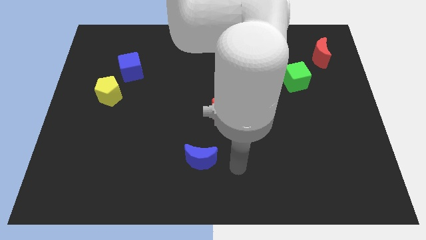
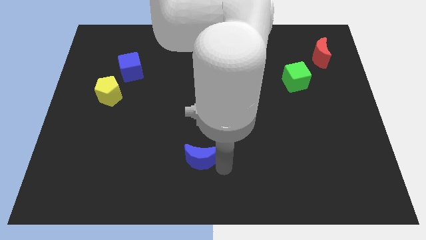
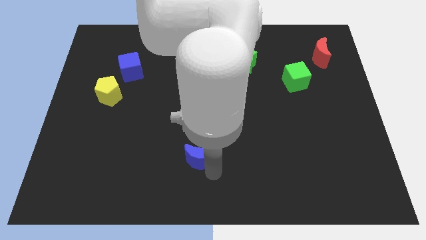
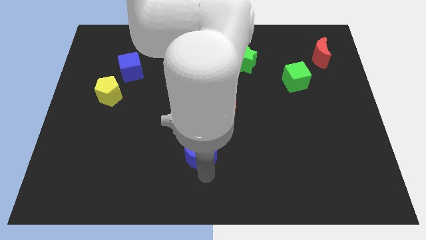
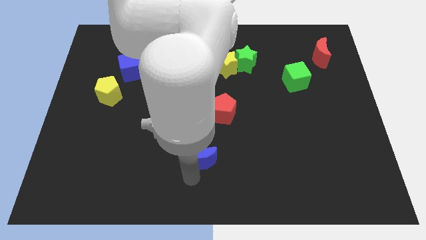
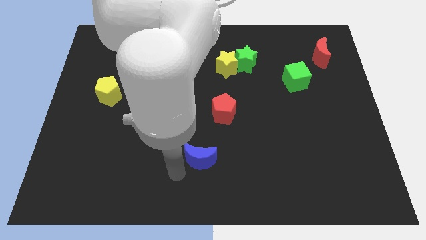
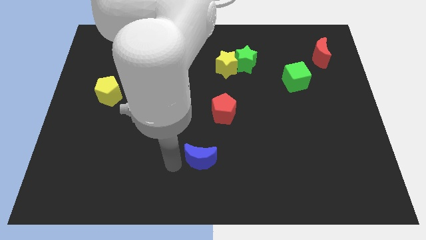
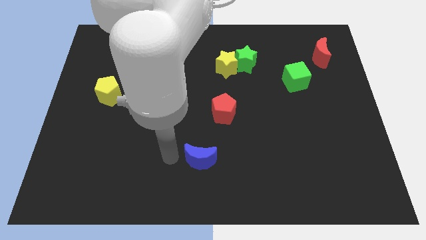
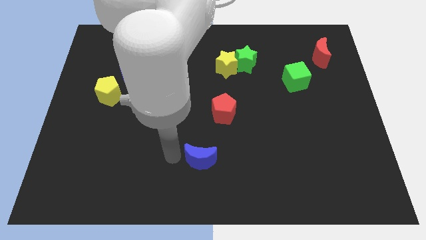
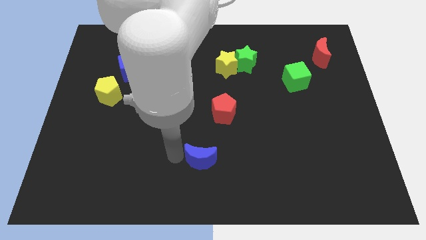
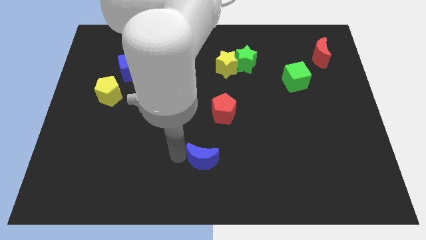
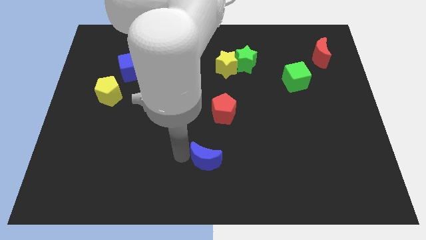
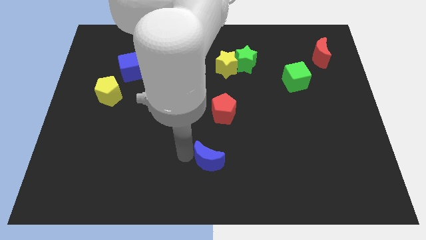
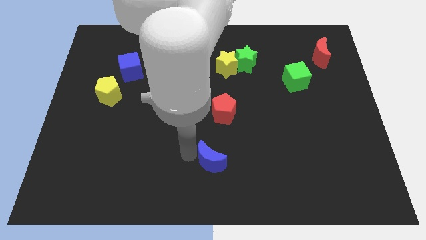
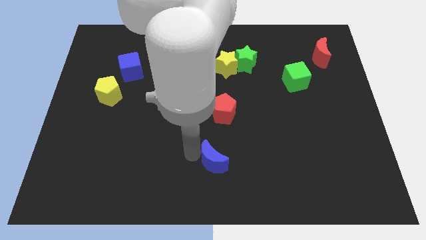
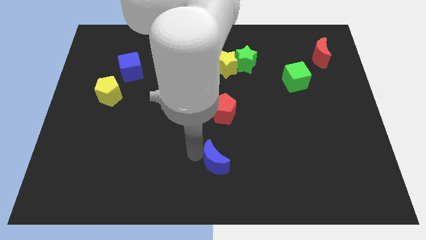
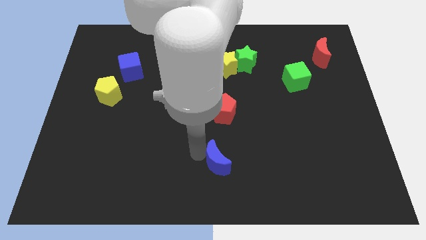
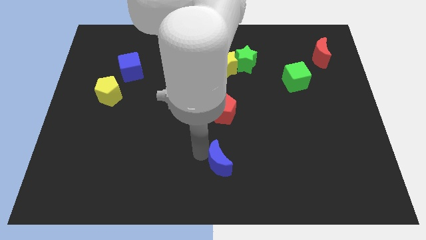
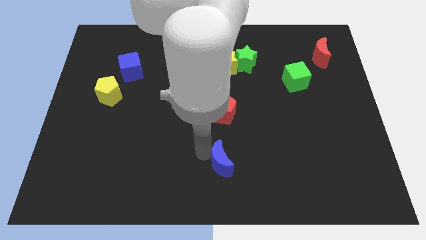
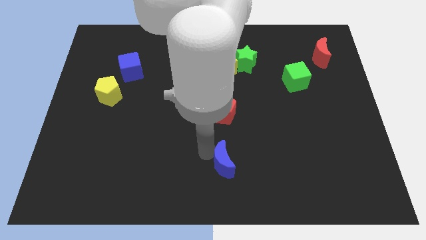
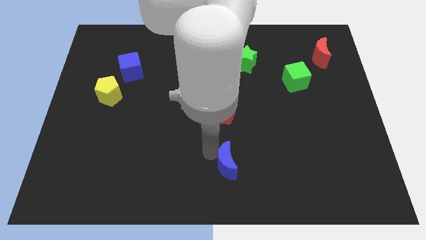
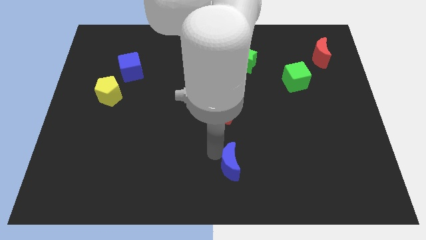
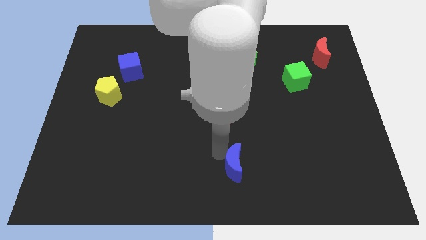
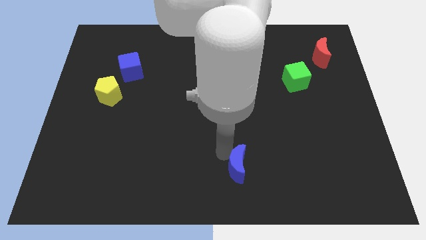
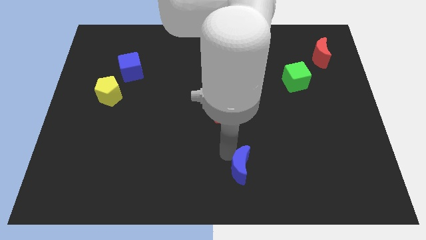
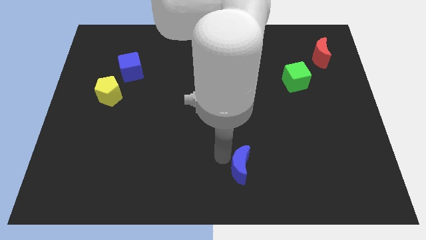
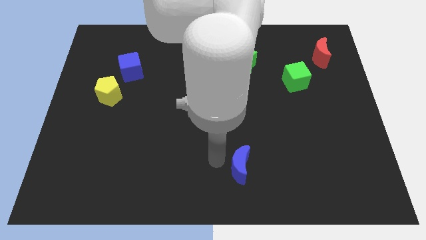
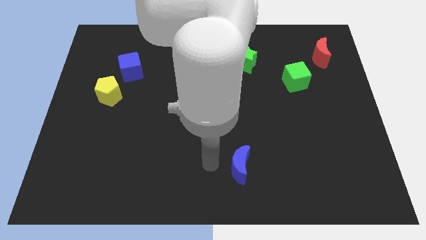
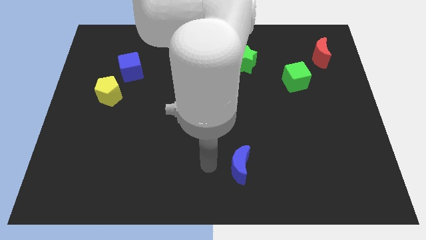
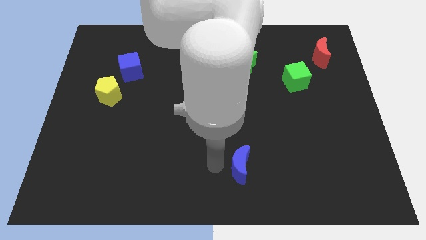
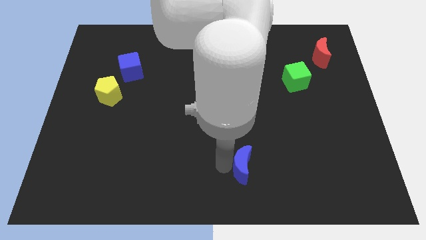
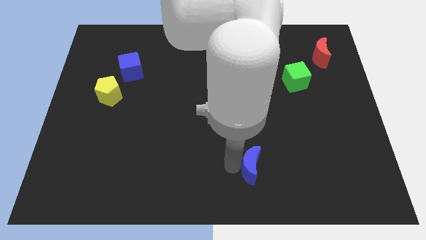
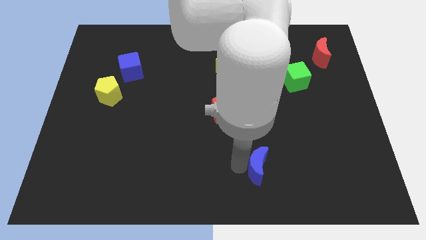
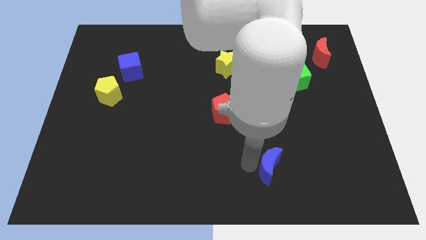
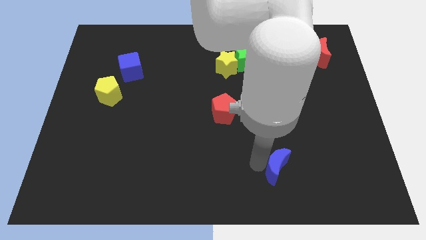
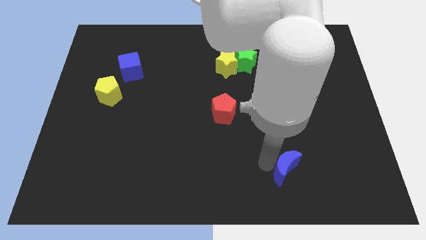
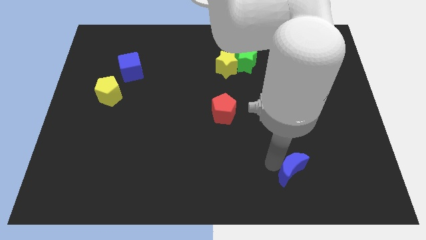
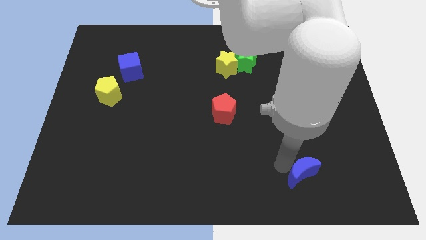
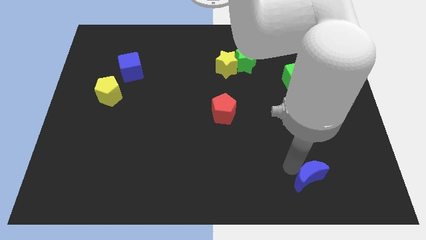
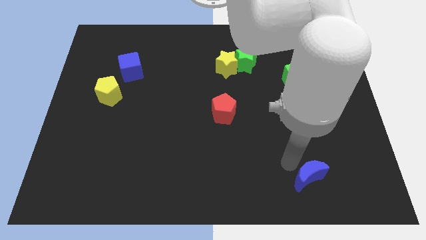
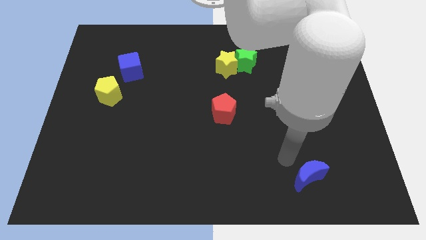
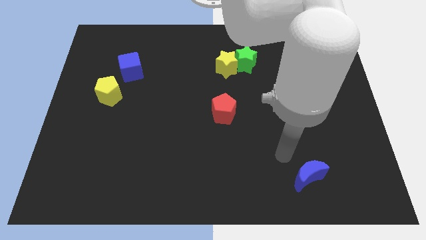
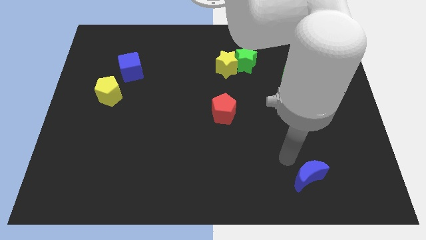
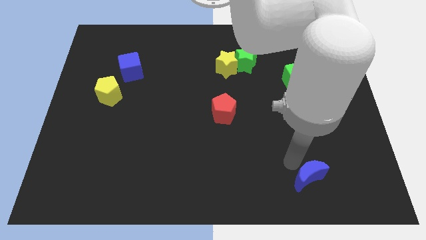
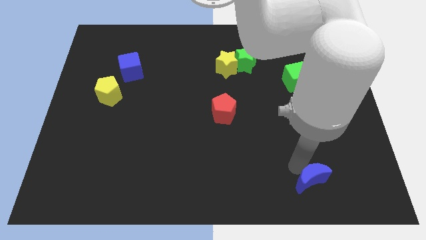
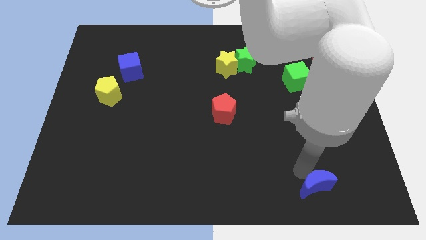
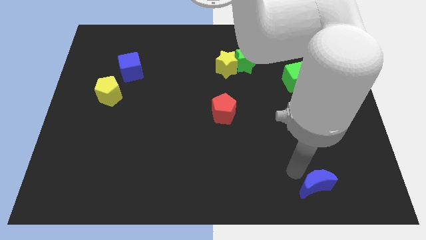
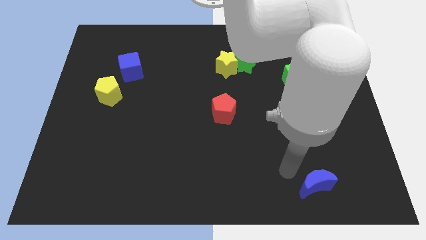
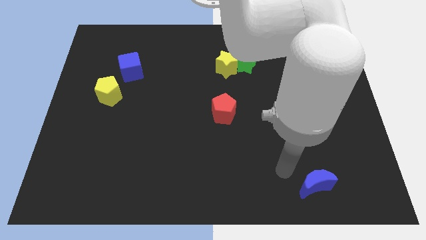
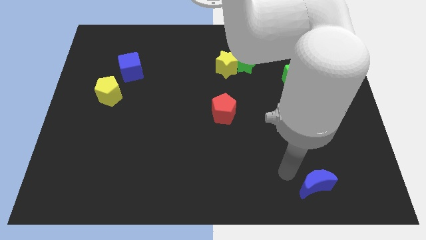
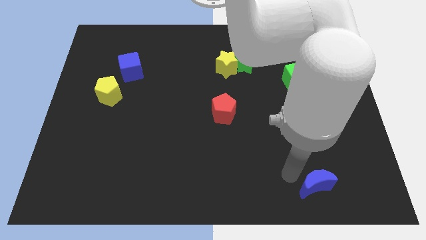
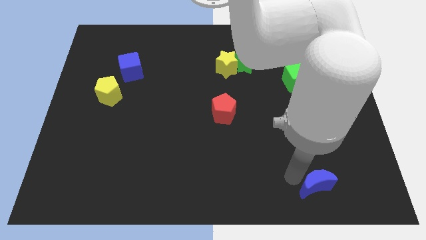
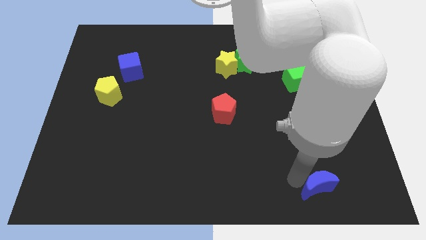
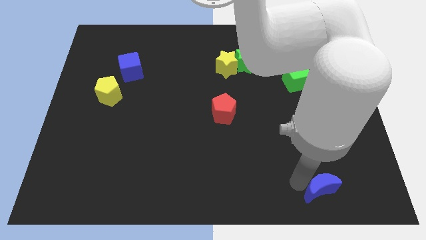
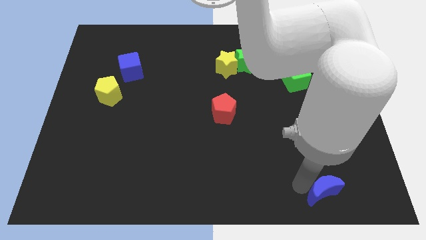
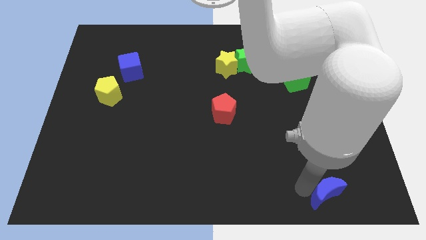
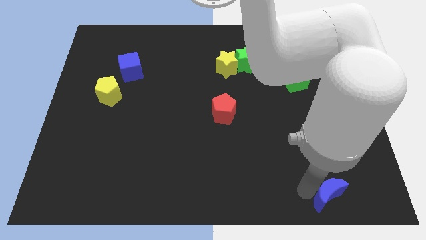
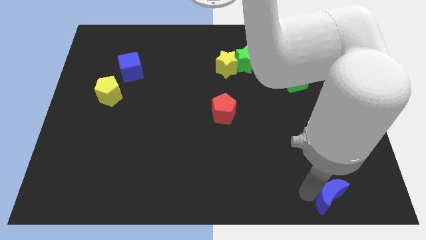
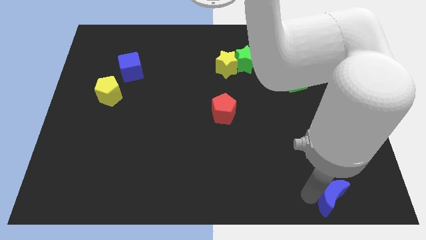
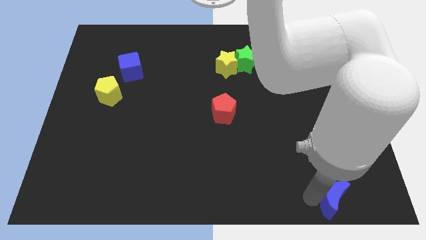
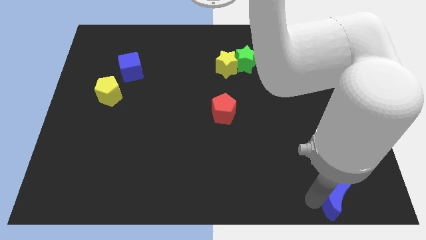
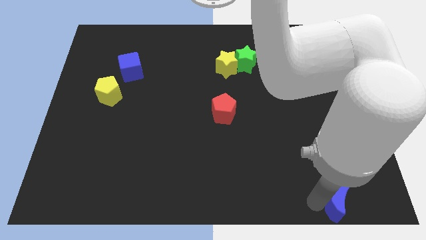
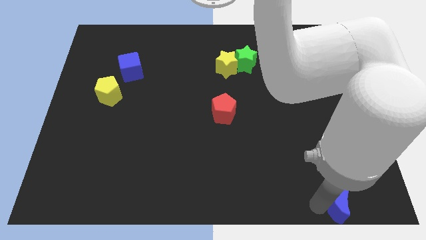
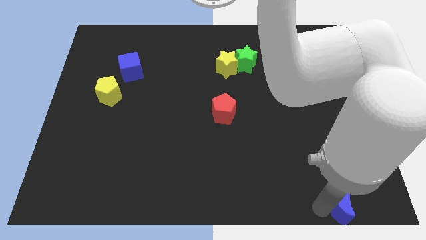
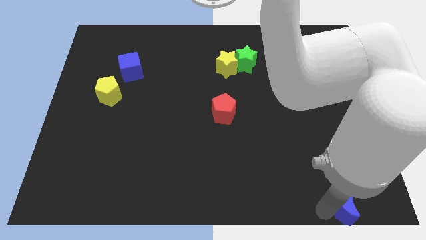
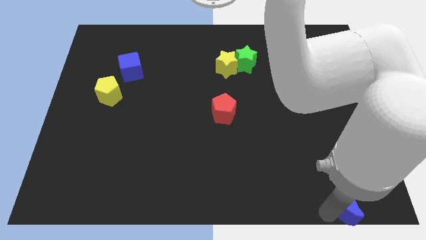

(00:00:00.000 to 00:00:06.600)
push the blue moon to the bottom right corner

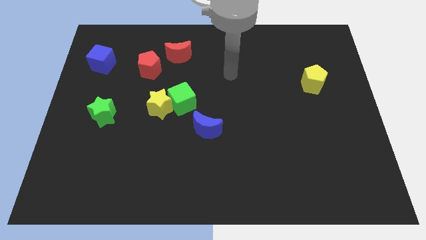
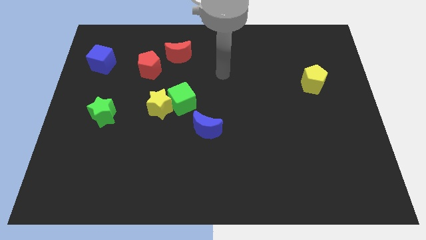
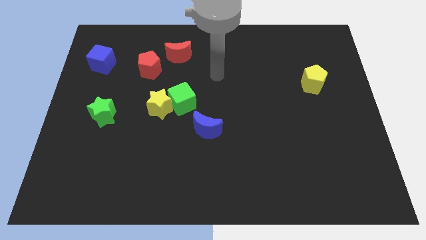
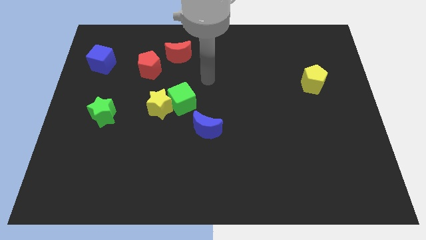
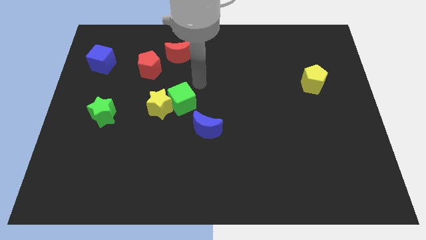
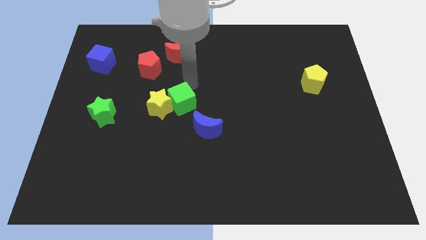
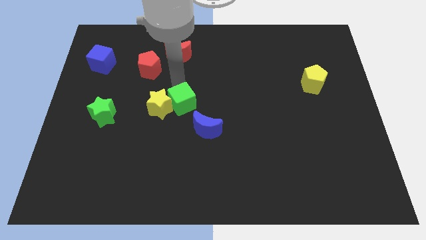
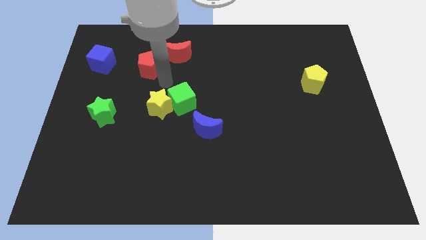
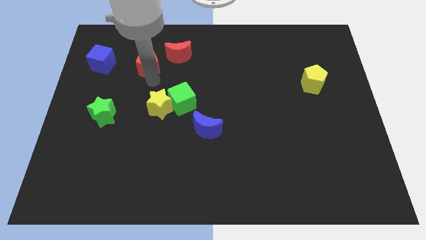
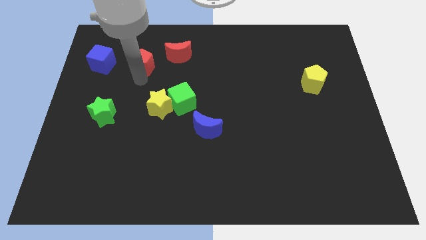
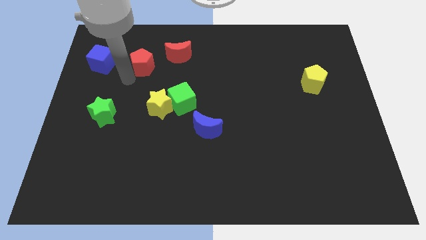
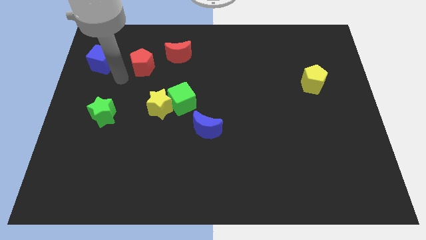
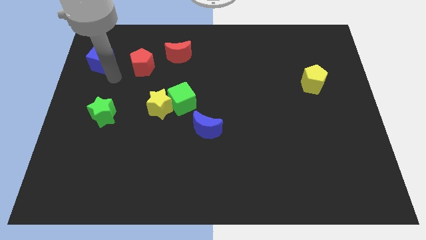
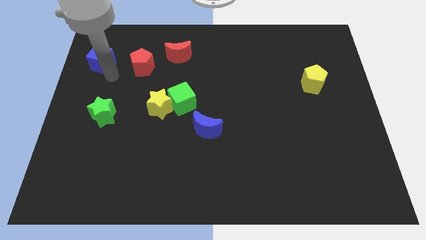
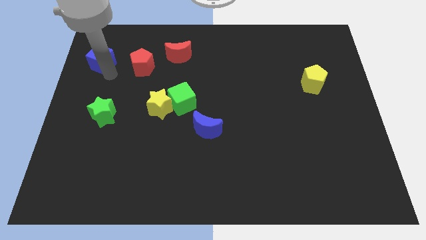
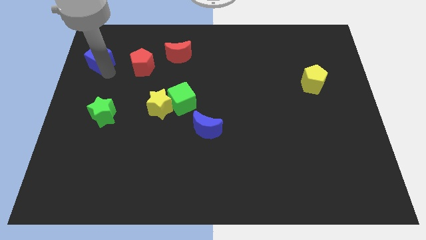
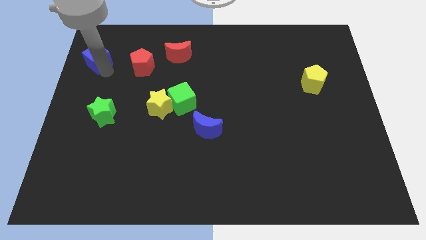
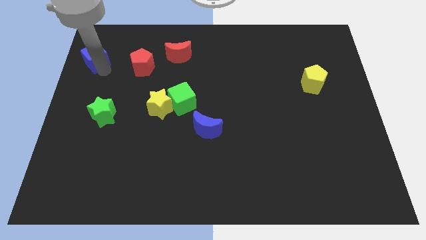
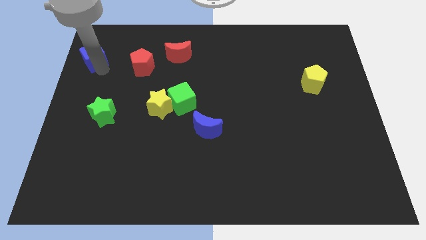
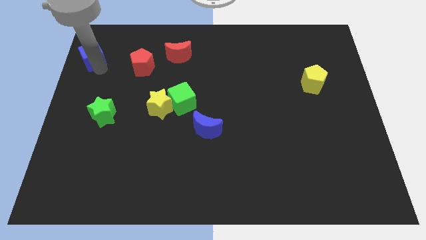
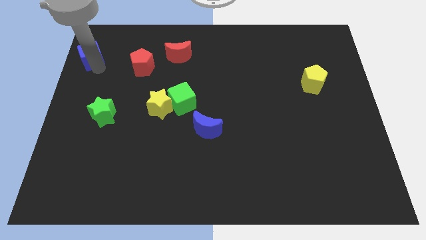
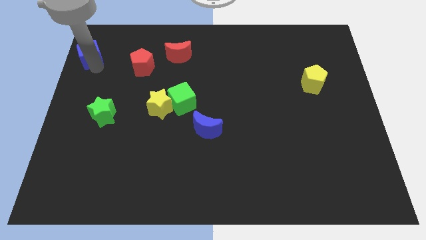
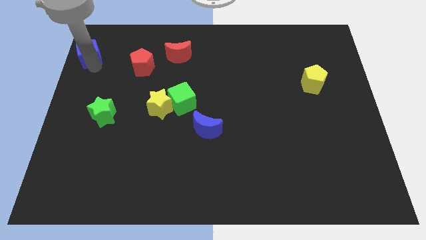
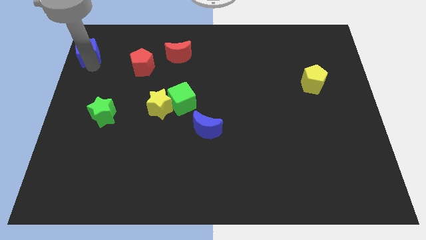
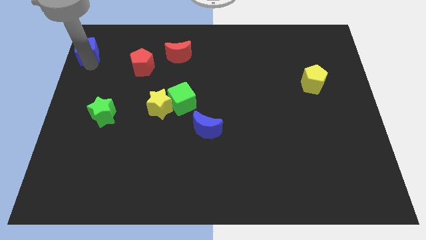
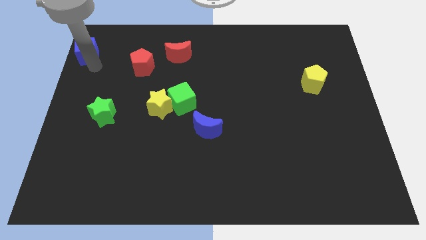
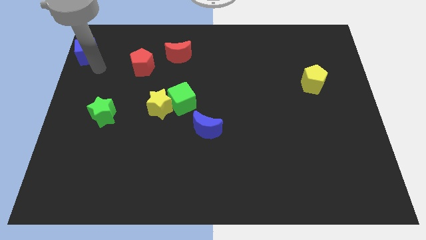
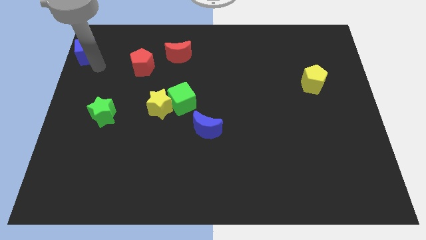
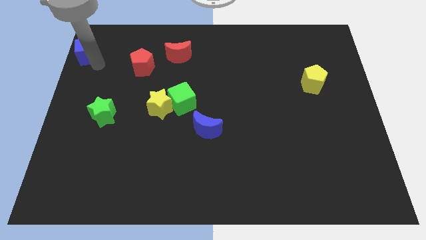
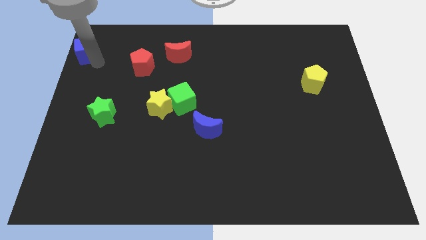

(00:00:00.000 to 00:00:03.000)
push the blue cube to the top left corner
